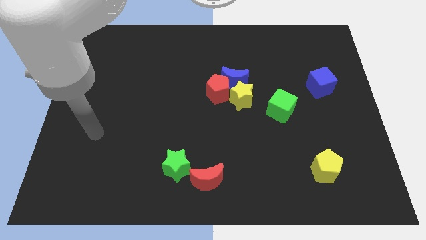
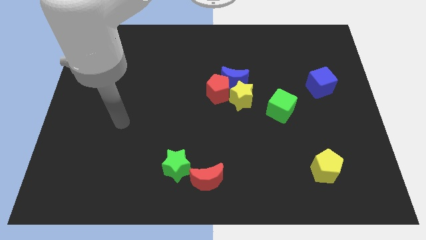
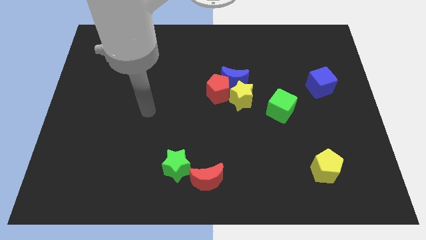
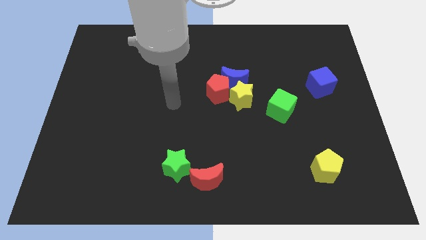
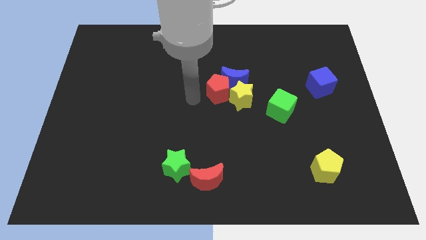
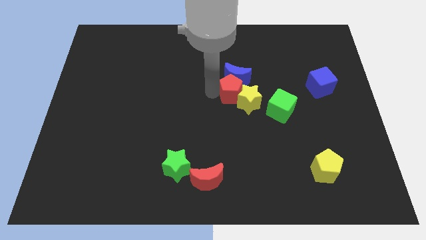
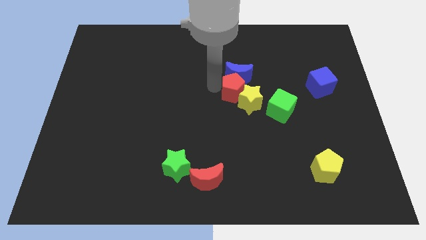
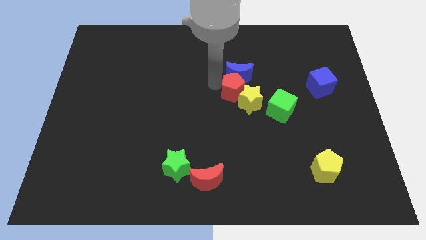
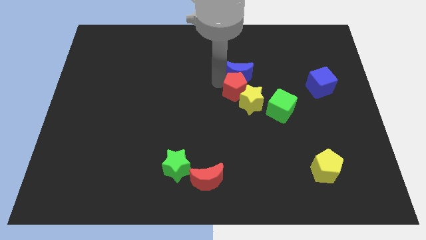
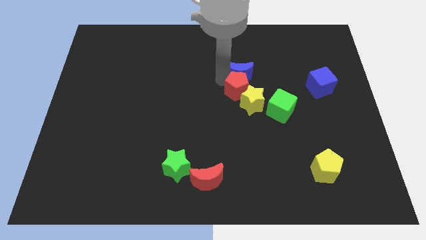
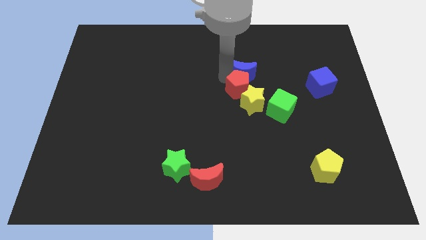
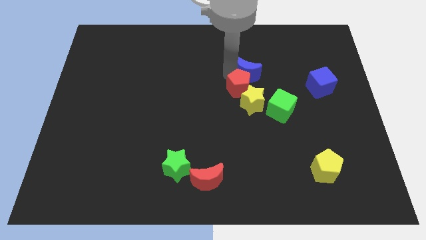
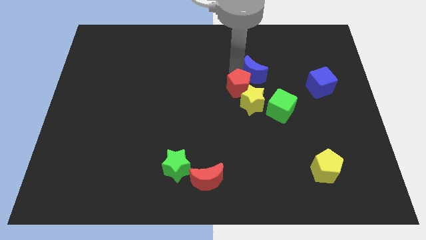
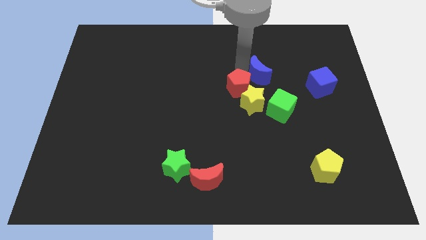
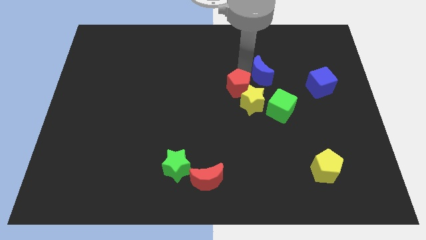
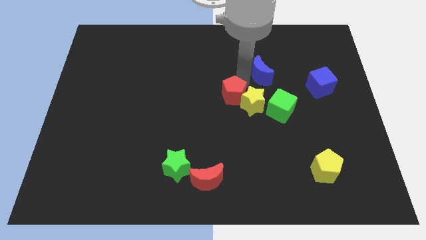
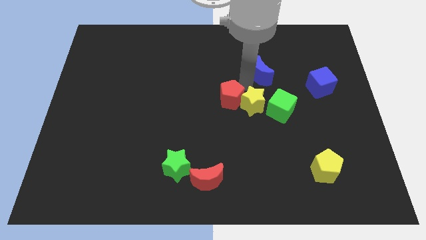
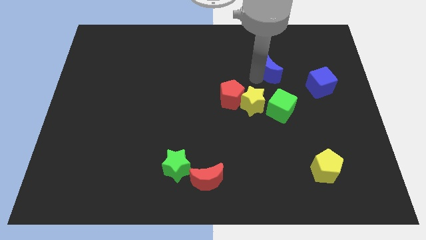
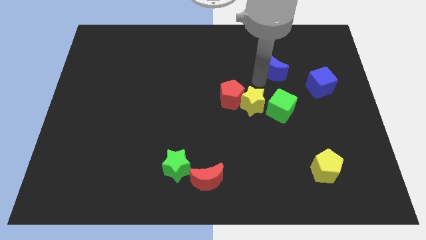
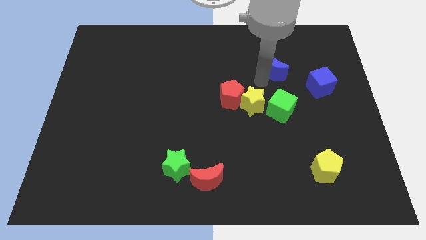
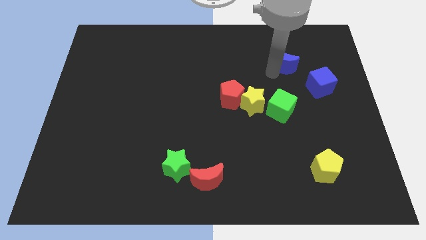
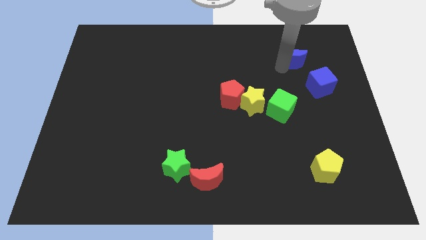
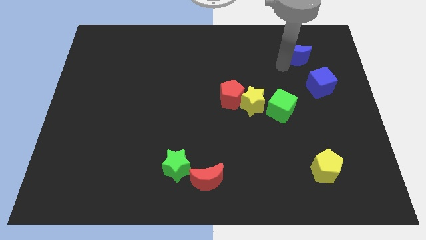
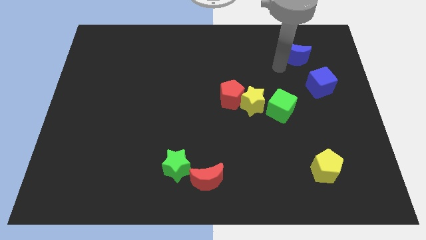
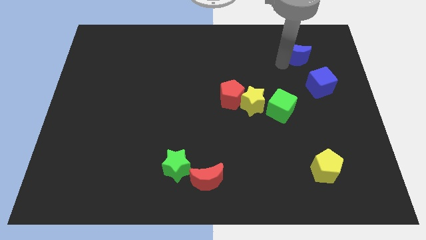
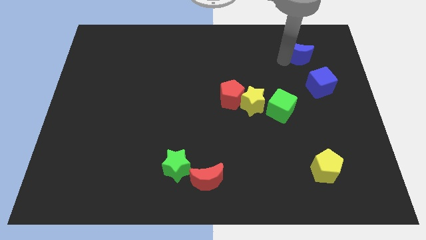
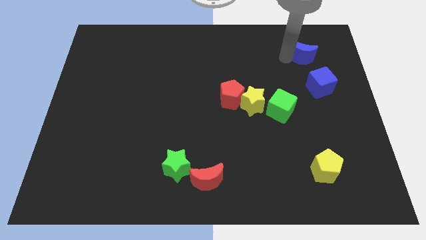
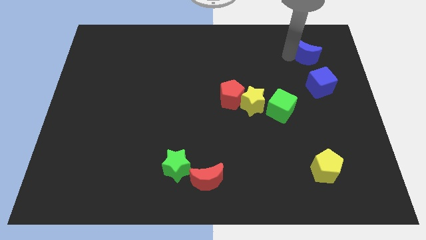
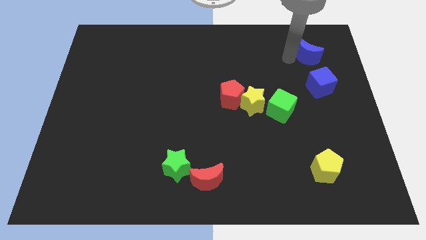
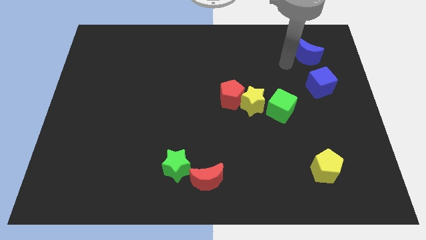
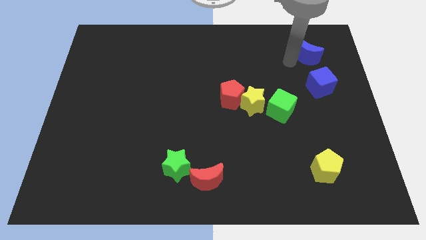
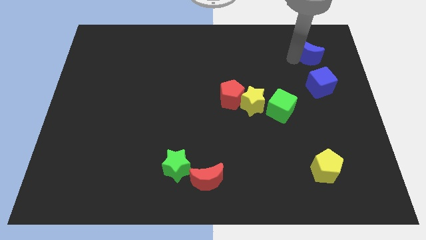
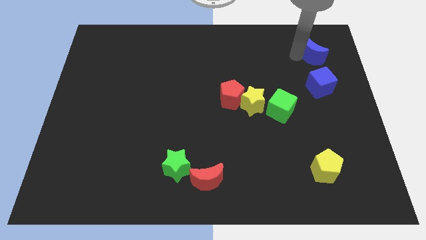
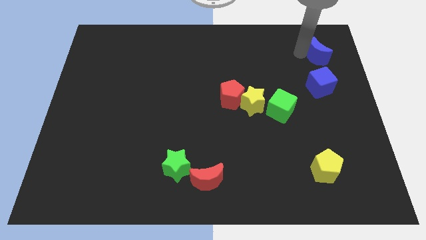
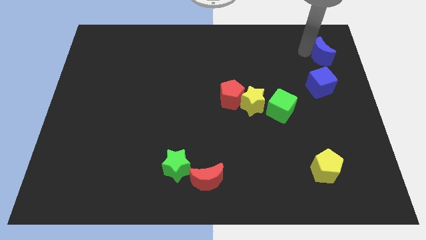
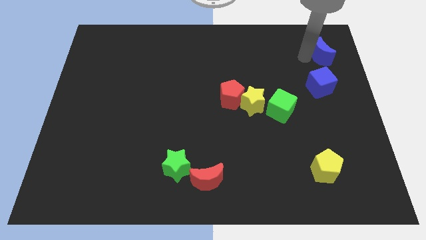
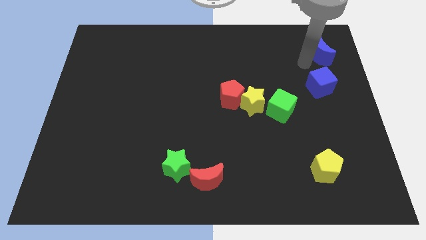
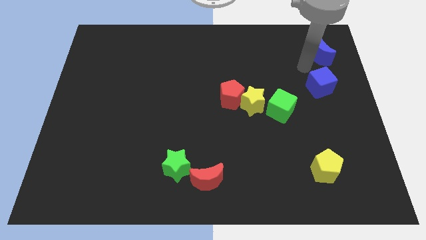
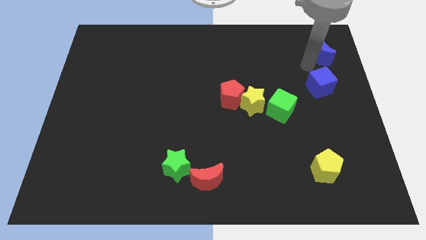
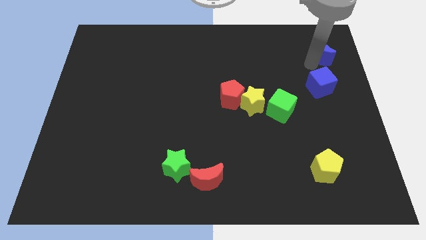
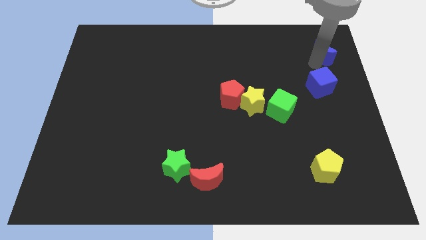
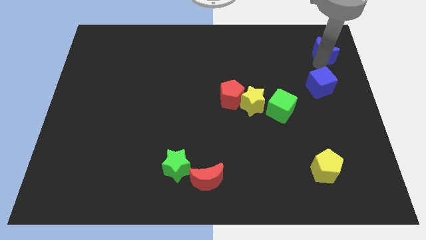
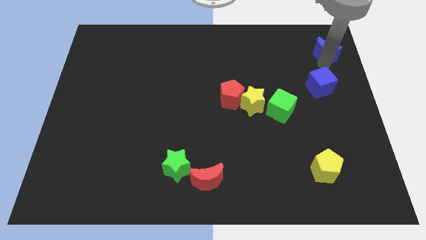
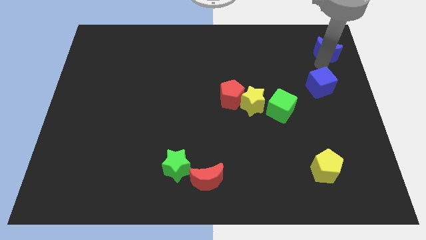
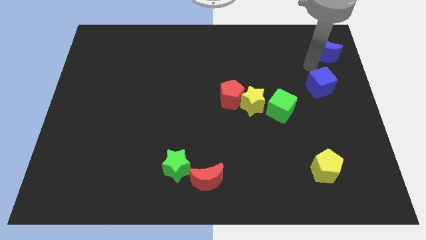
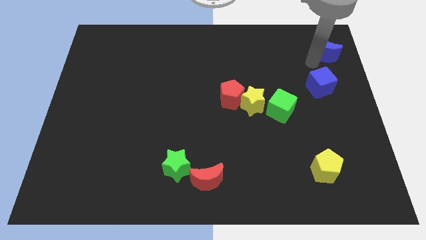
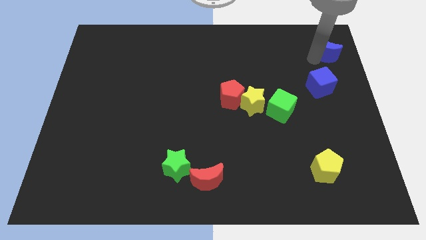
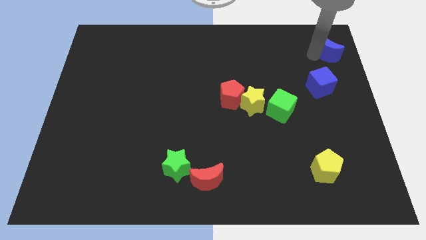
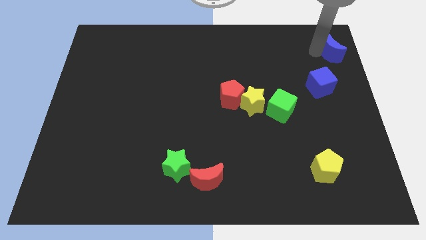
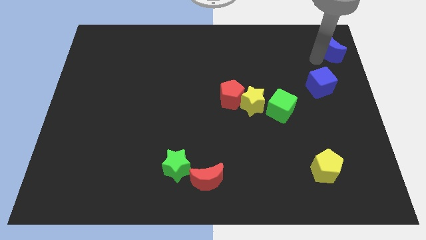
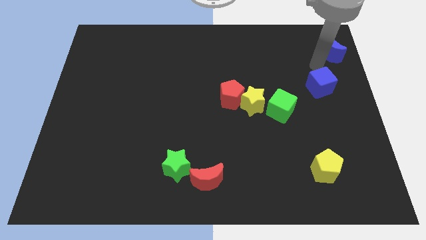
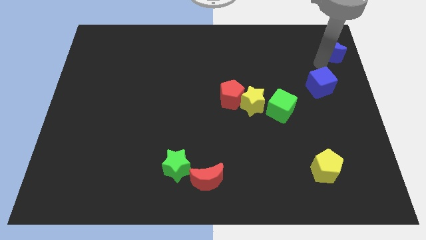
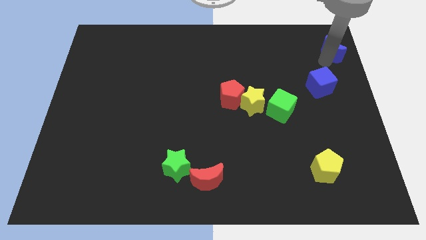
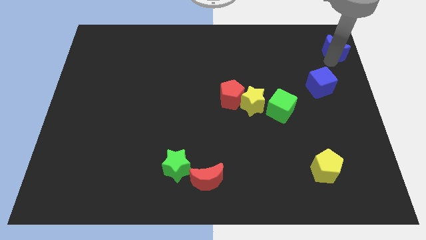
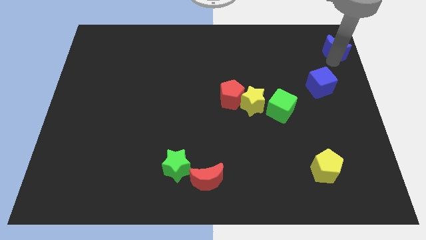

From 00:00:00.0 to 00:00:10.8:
push the blue moon to the top right of the board

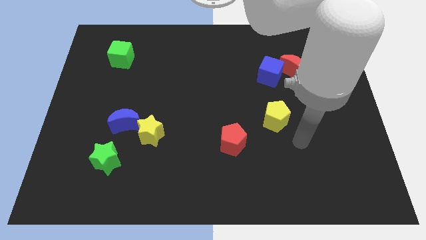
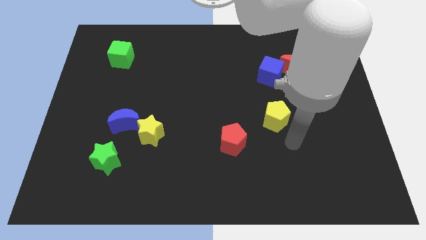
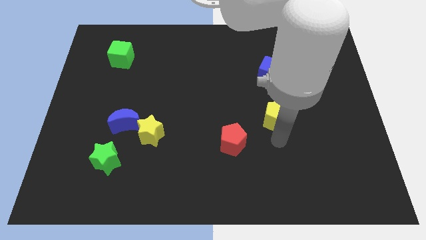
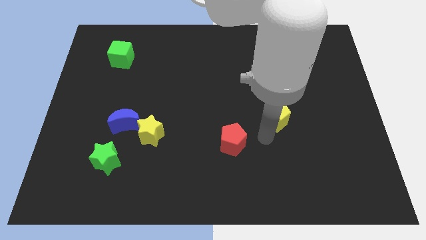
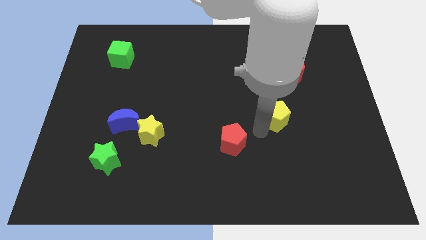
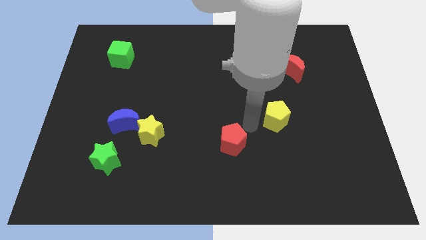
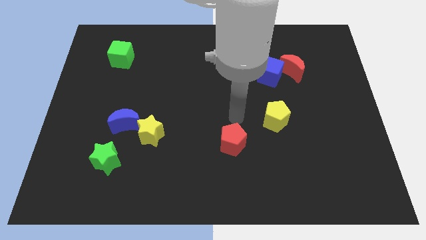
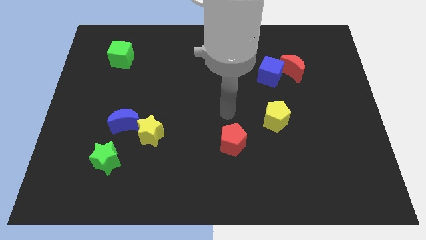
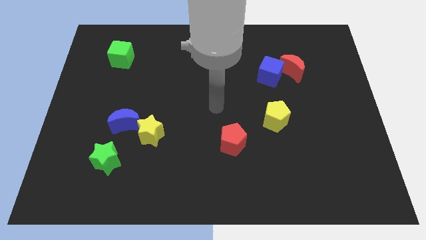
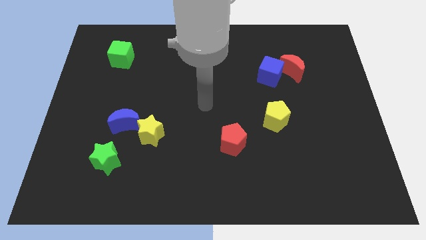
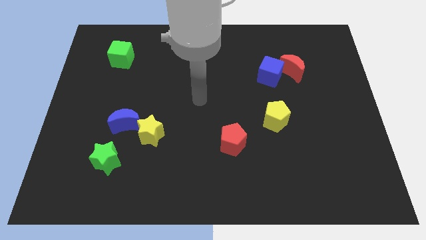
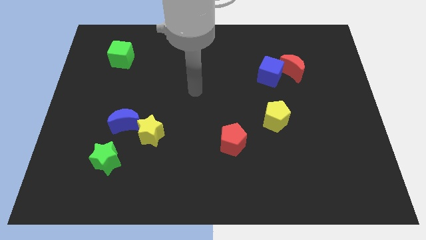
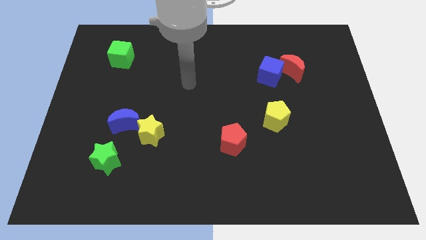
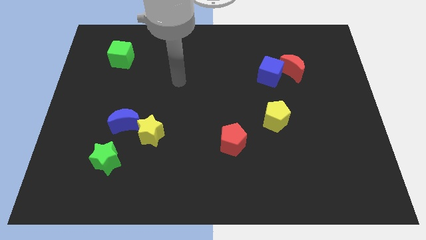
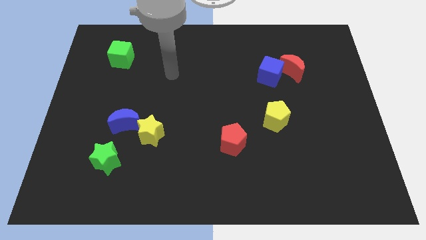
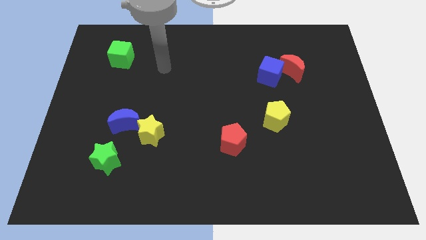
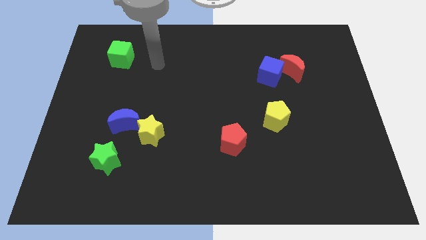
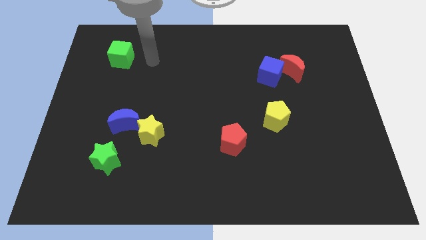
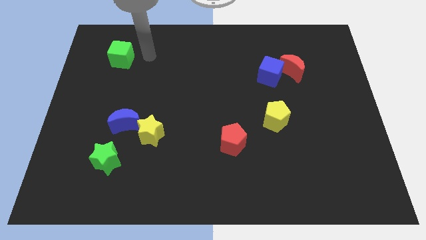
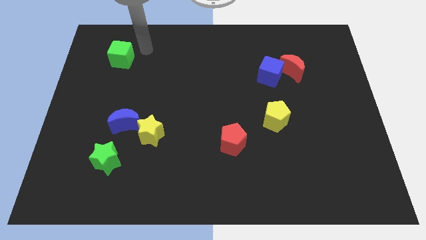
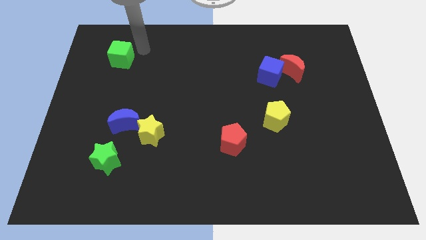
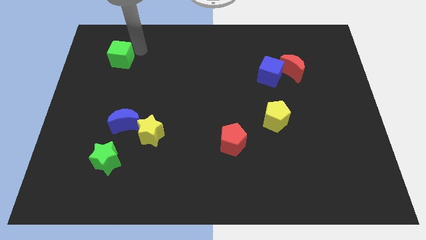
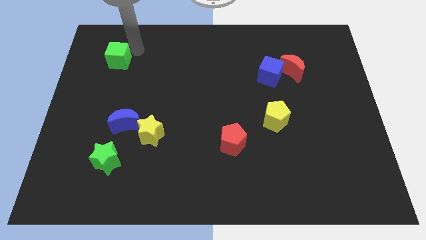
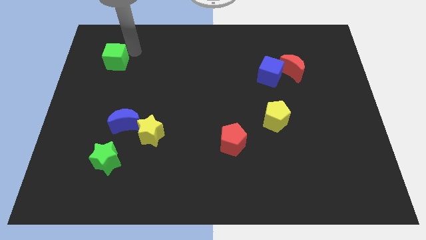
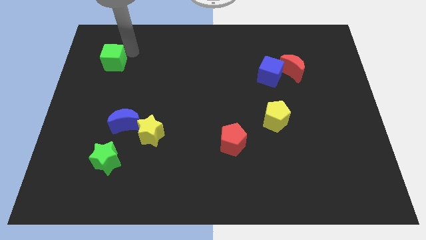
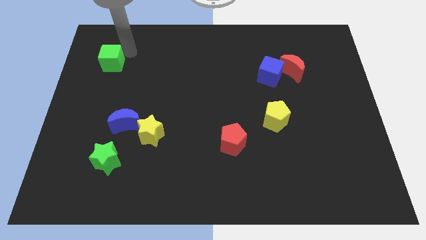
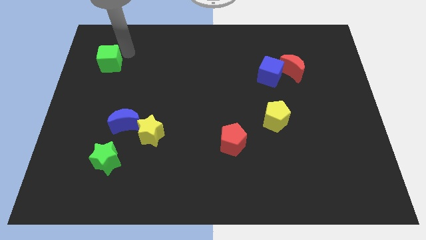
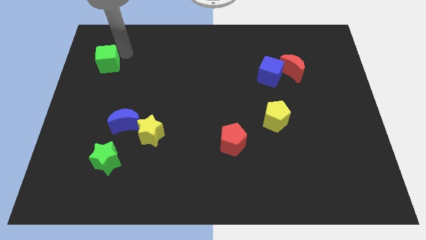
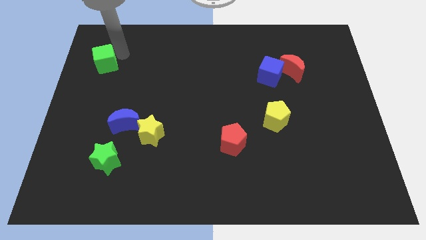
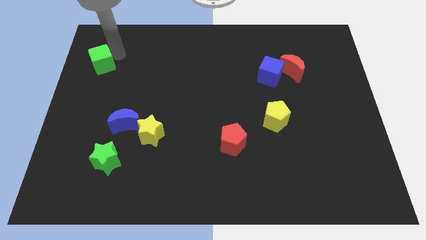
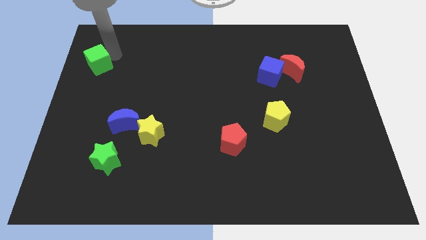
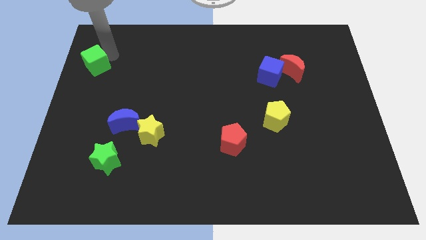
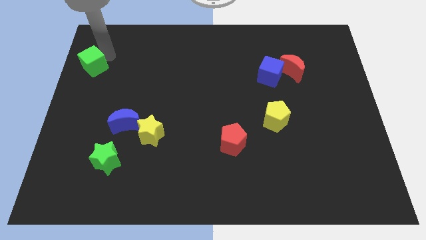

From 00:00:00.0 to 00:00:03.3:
move the green cube to the left side of the board

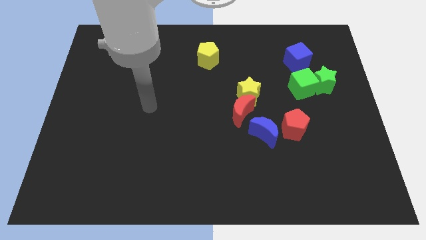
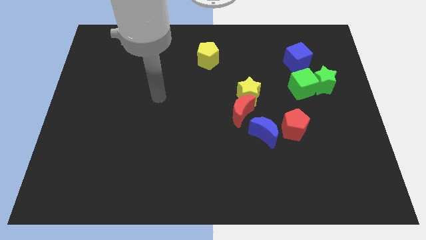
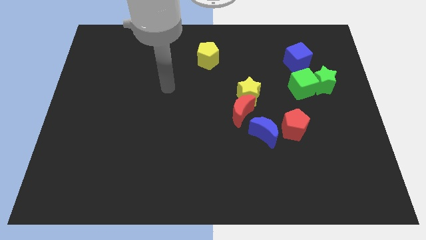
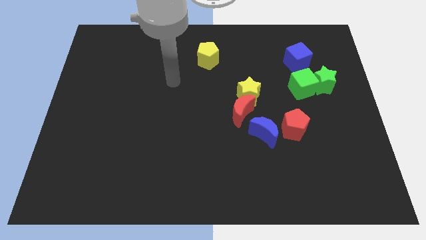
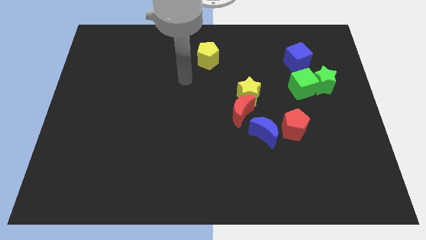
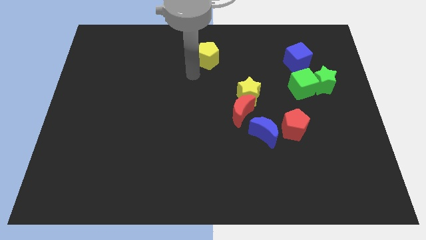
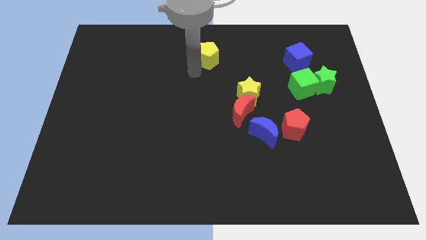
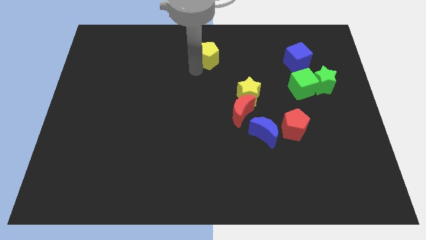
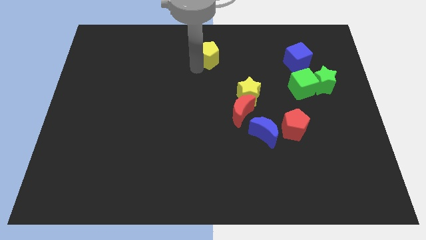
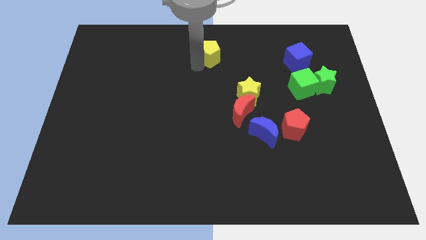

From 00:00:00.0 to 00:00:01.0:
push the yellow pentagon to the top side
